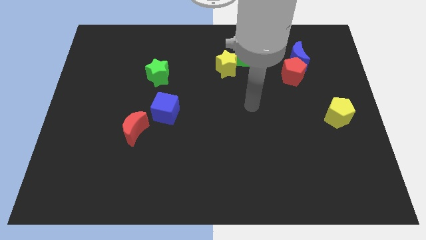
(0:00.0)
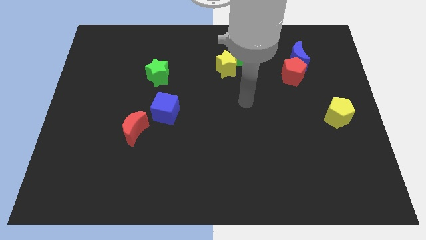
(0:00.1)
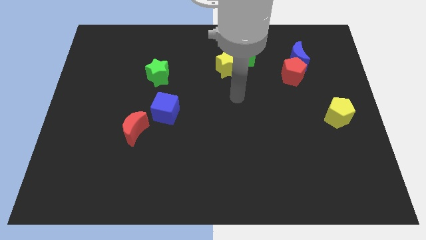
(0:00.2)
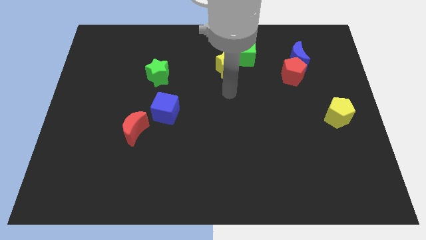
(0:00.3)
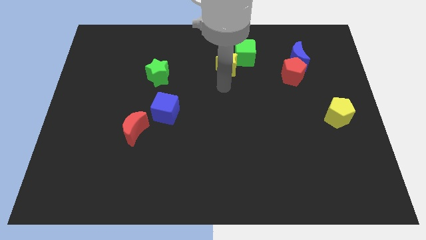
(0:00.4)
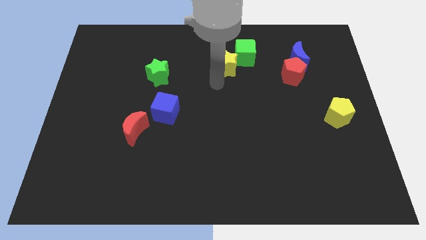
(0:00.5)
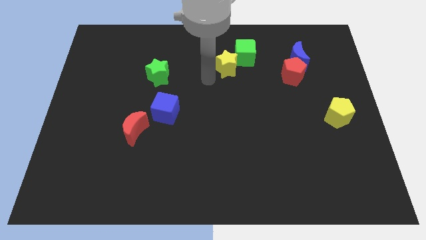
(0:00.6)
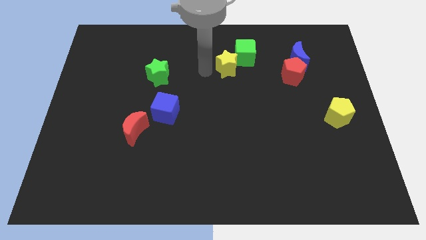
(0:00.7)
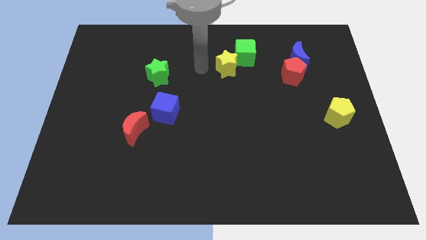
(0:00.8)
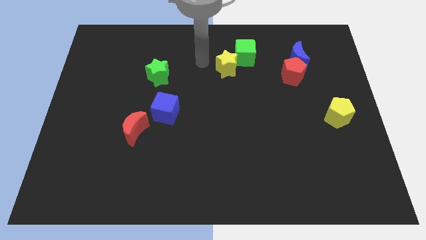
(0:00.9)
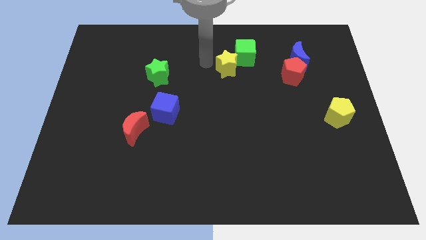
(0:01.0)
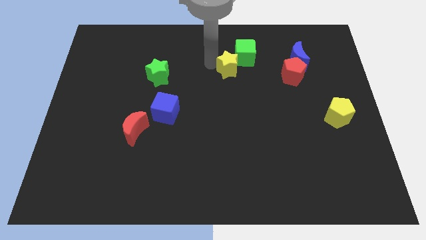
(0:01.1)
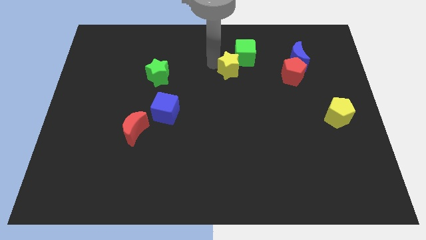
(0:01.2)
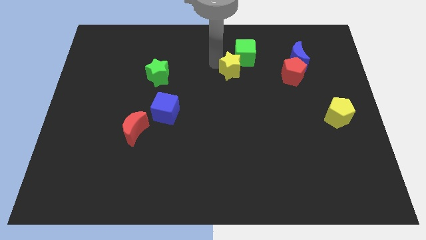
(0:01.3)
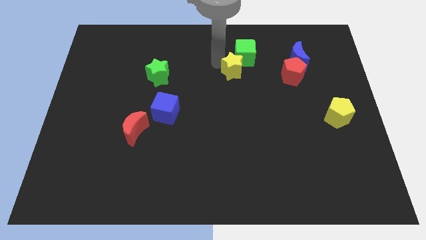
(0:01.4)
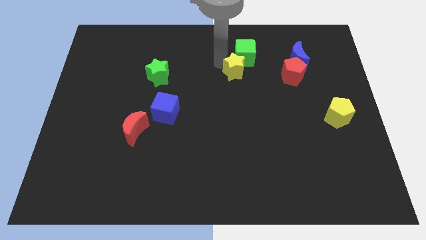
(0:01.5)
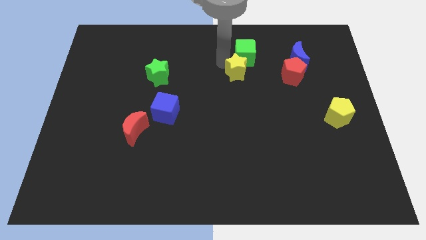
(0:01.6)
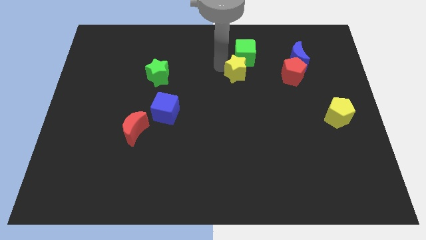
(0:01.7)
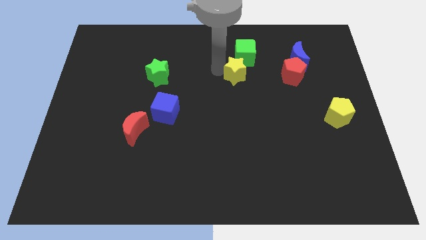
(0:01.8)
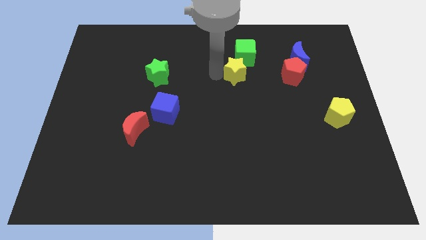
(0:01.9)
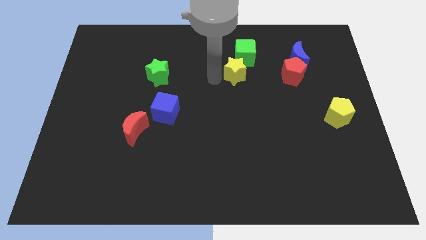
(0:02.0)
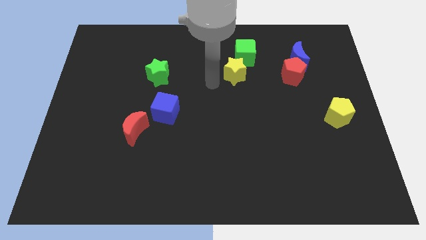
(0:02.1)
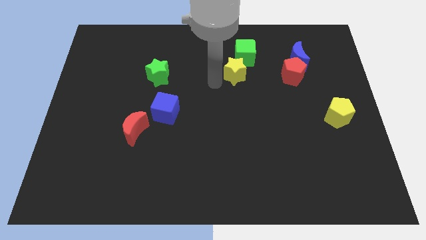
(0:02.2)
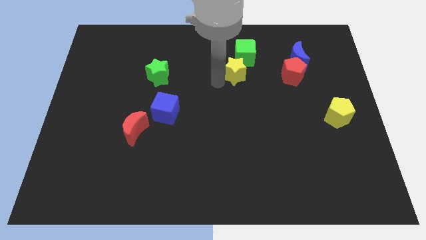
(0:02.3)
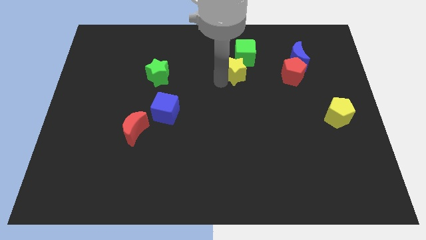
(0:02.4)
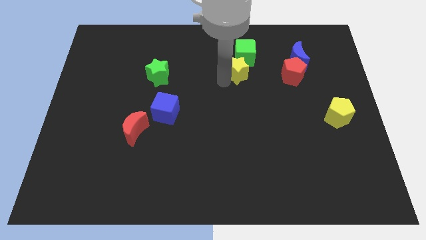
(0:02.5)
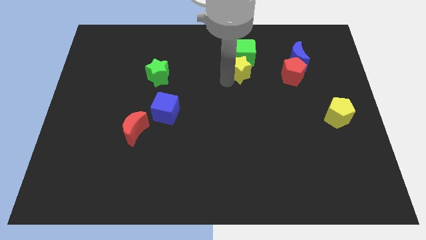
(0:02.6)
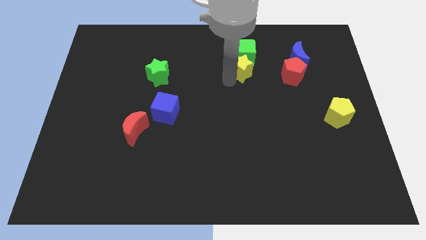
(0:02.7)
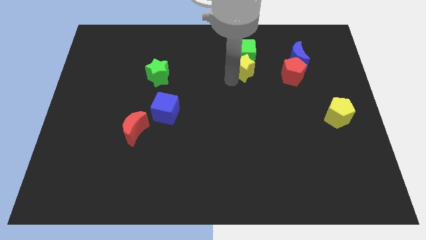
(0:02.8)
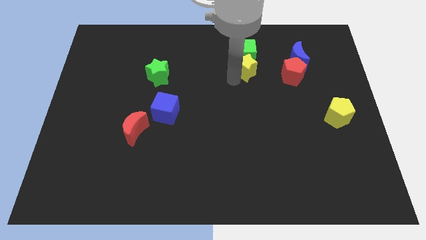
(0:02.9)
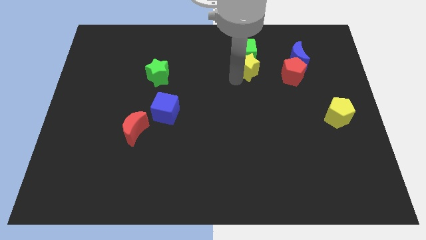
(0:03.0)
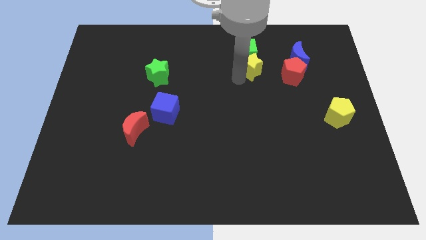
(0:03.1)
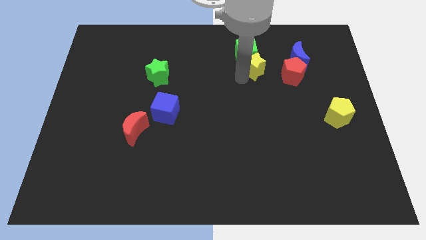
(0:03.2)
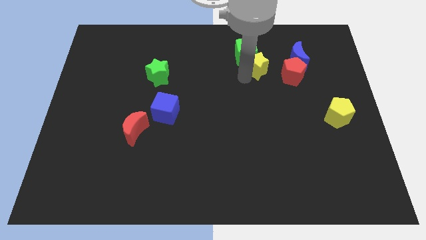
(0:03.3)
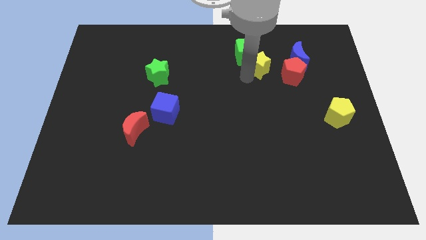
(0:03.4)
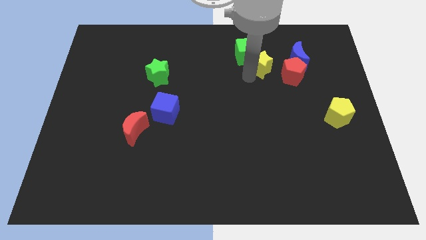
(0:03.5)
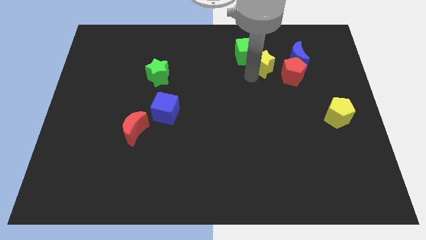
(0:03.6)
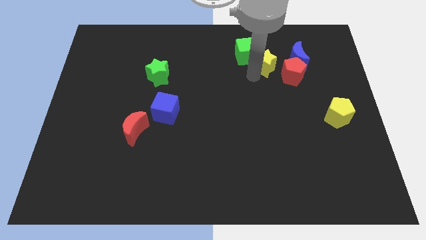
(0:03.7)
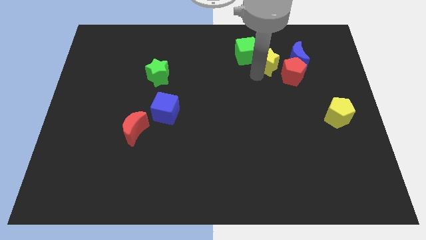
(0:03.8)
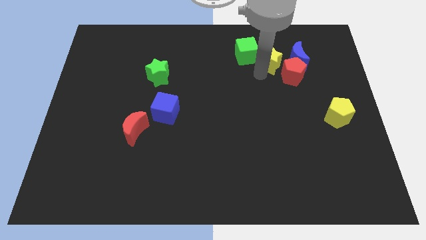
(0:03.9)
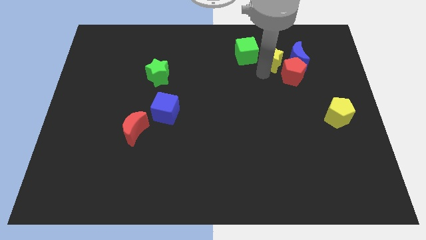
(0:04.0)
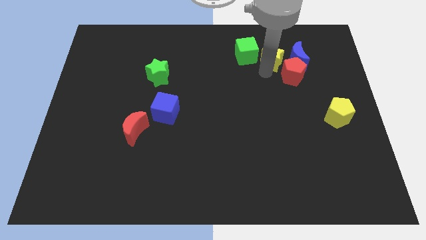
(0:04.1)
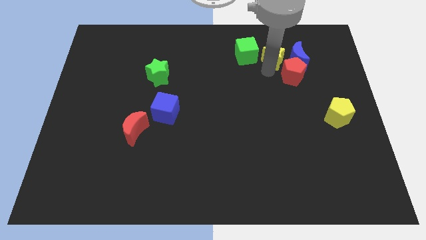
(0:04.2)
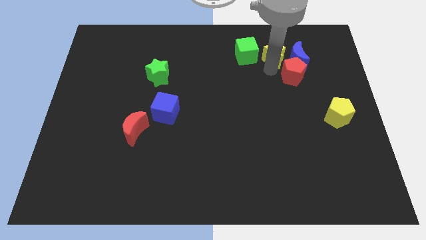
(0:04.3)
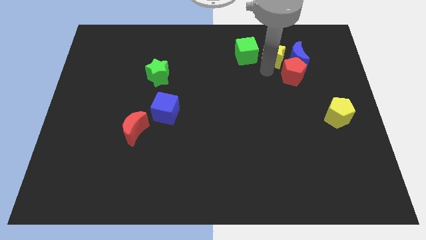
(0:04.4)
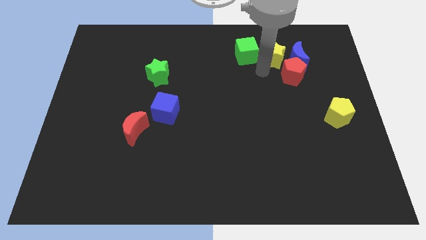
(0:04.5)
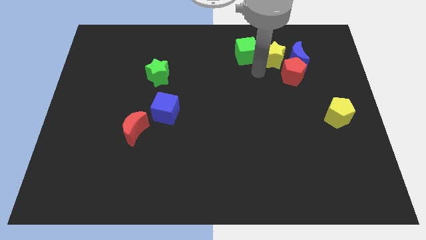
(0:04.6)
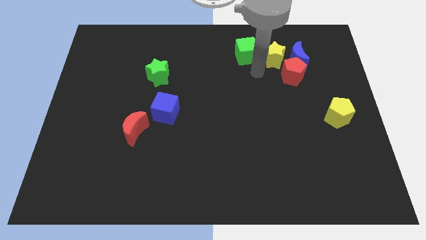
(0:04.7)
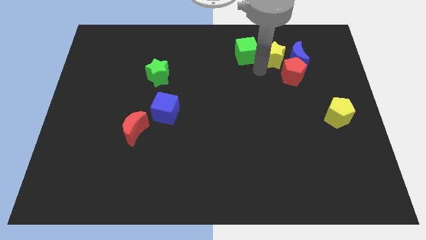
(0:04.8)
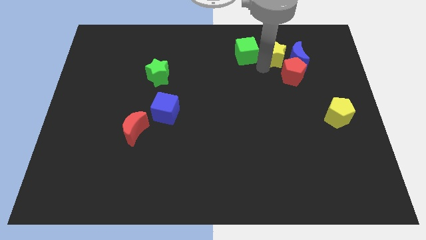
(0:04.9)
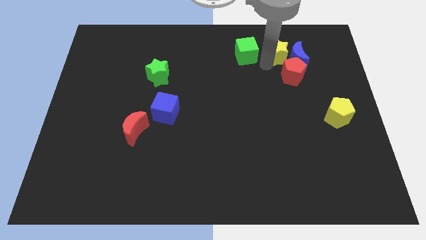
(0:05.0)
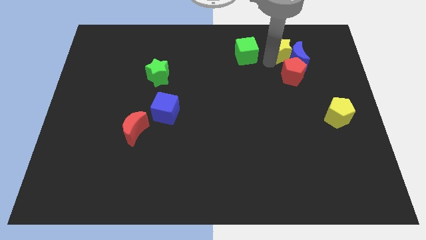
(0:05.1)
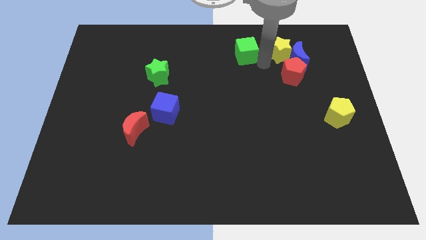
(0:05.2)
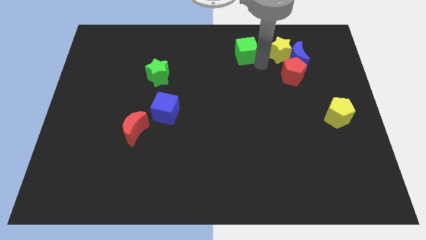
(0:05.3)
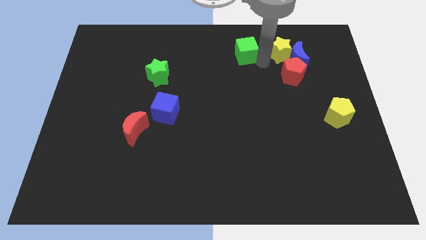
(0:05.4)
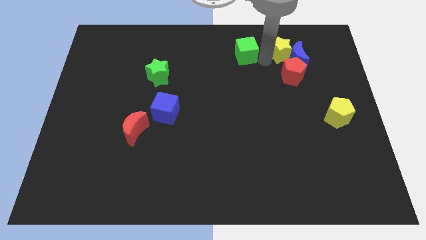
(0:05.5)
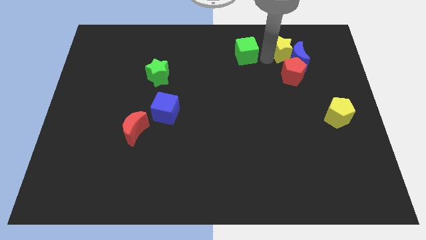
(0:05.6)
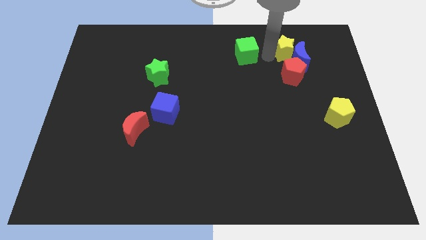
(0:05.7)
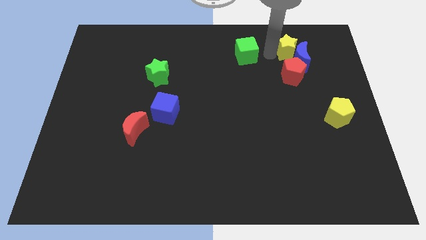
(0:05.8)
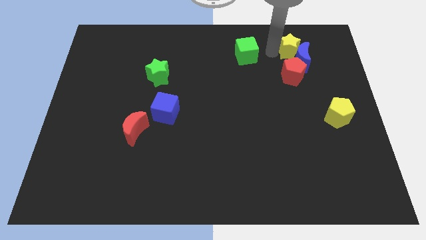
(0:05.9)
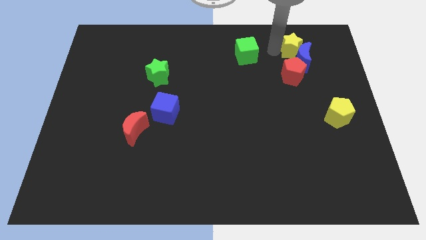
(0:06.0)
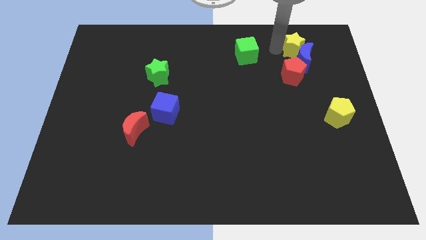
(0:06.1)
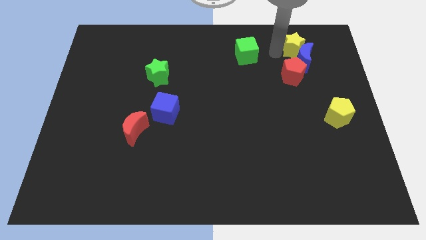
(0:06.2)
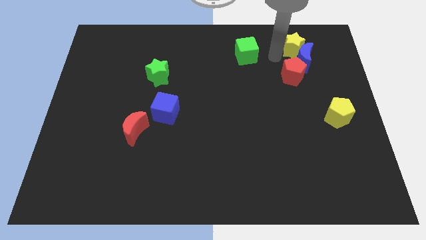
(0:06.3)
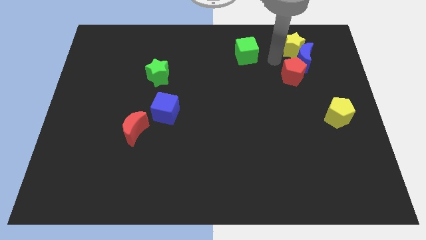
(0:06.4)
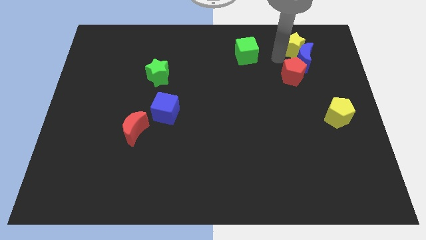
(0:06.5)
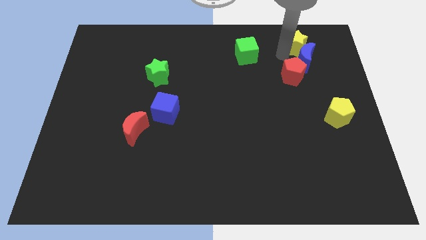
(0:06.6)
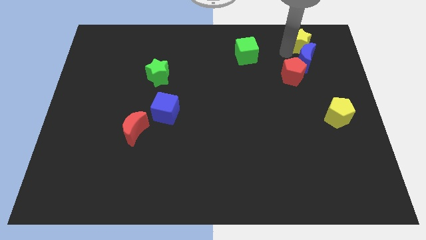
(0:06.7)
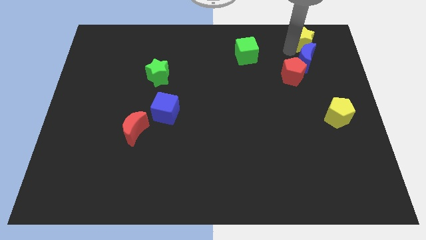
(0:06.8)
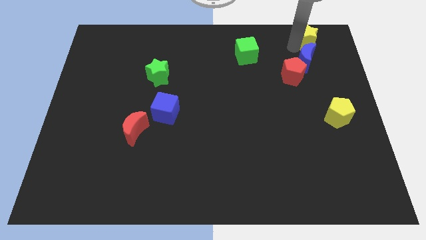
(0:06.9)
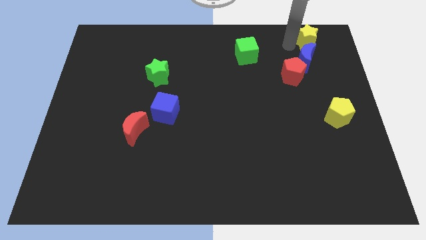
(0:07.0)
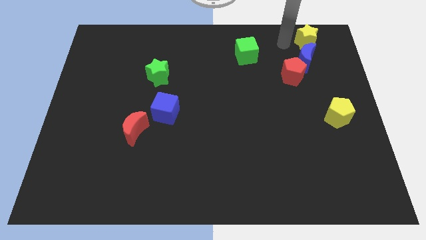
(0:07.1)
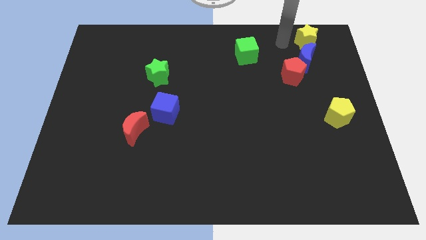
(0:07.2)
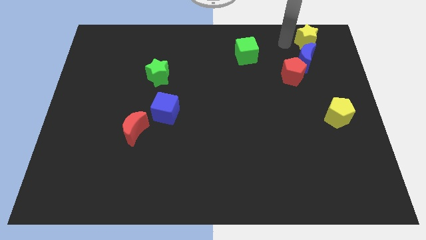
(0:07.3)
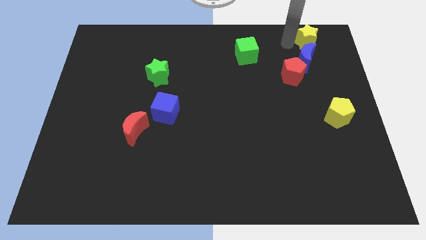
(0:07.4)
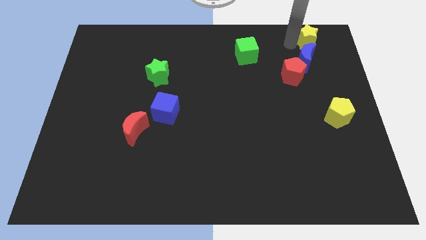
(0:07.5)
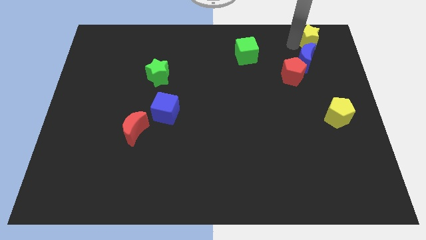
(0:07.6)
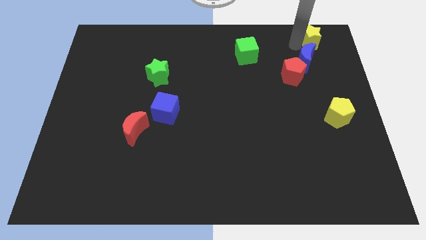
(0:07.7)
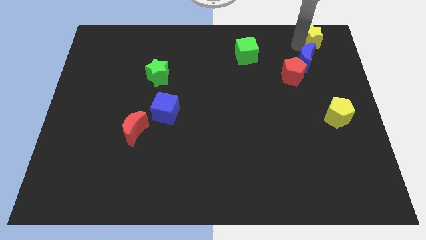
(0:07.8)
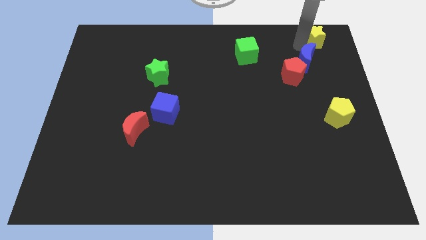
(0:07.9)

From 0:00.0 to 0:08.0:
push the yellow star to the upper right corner
